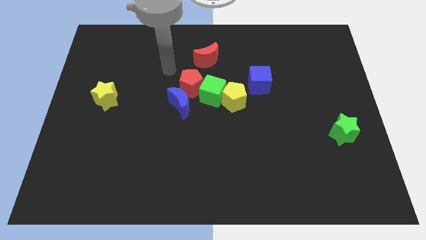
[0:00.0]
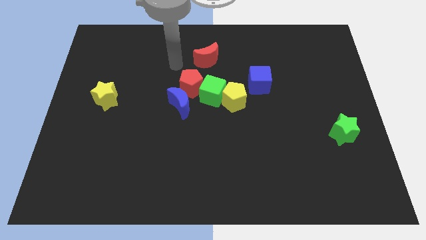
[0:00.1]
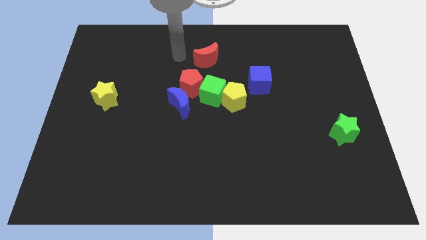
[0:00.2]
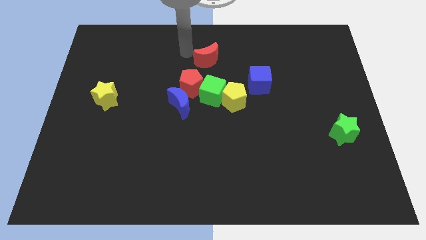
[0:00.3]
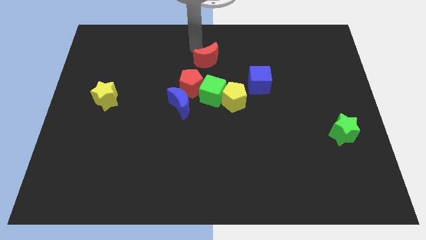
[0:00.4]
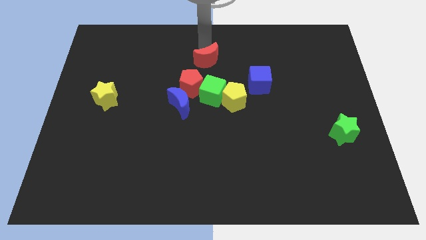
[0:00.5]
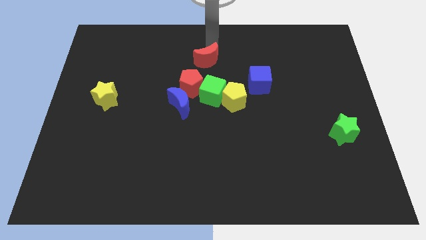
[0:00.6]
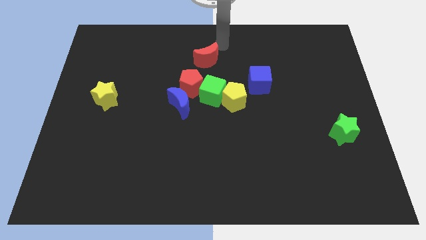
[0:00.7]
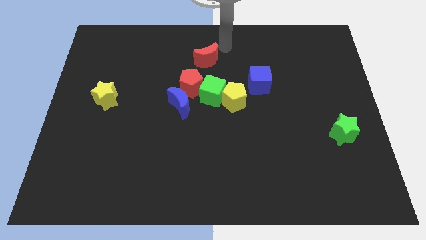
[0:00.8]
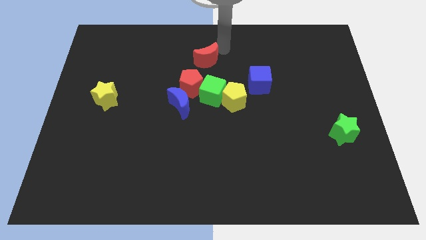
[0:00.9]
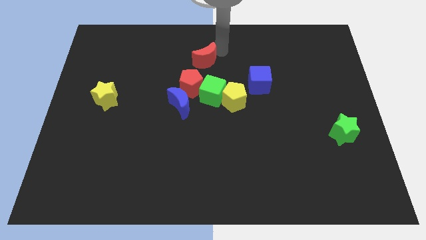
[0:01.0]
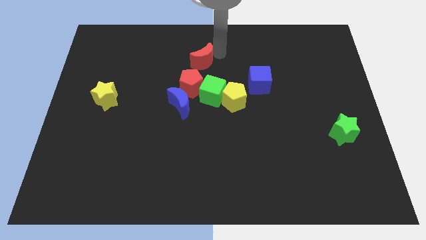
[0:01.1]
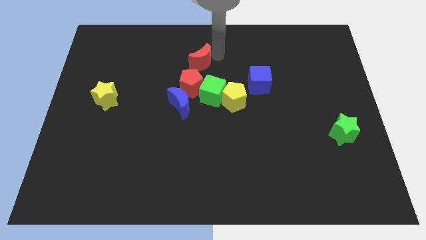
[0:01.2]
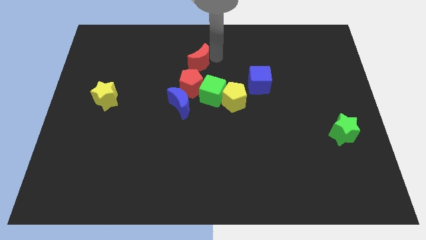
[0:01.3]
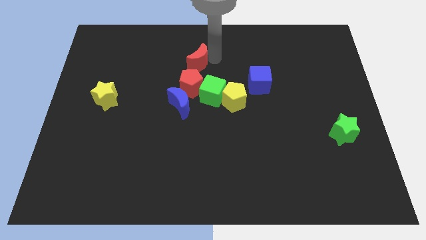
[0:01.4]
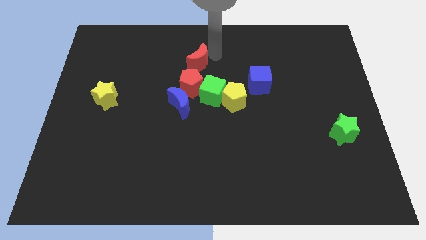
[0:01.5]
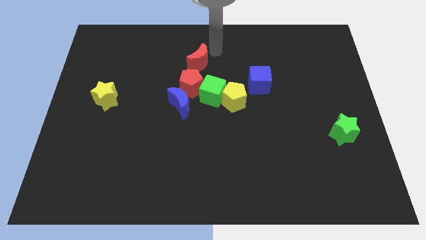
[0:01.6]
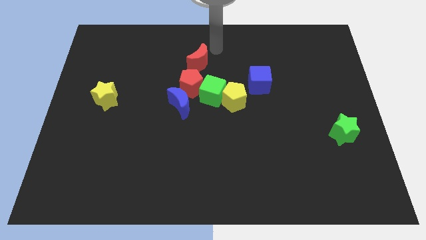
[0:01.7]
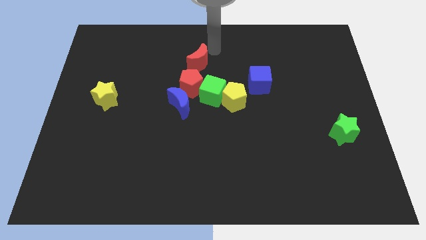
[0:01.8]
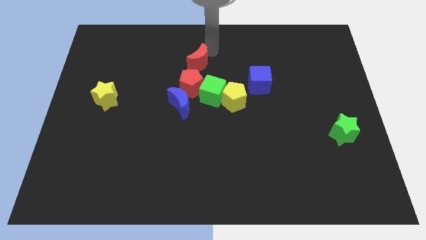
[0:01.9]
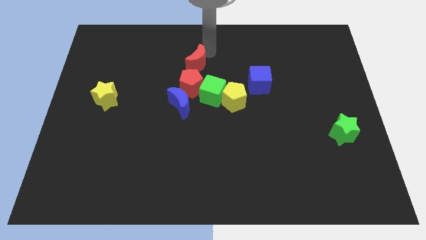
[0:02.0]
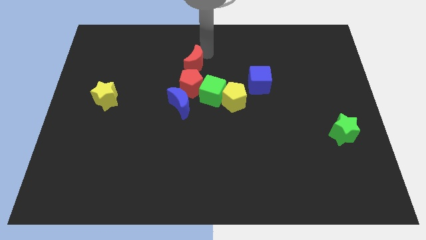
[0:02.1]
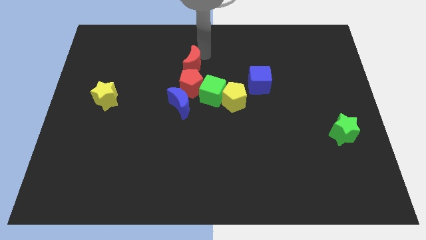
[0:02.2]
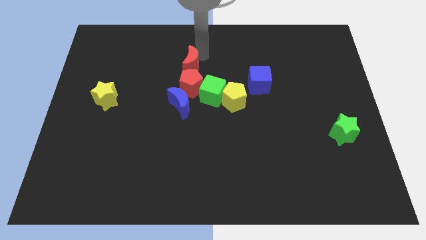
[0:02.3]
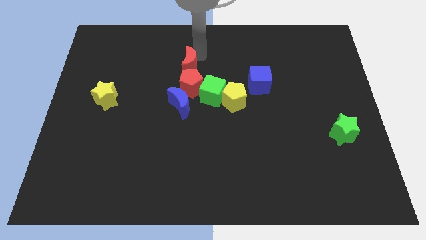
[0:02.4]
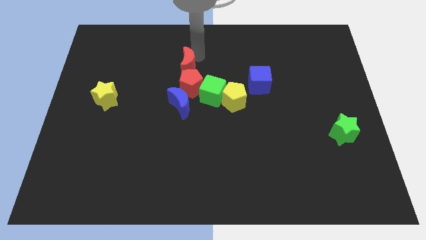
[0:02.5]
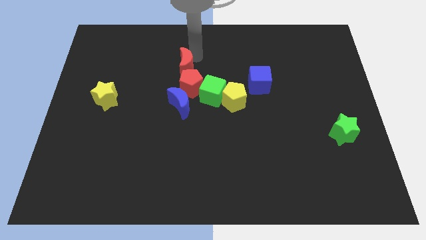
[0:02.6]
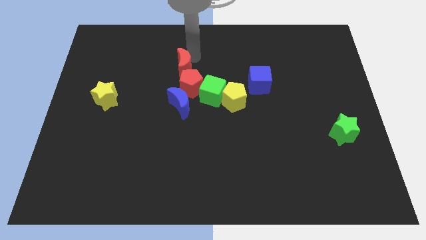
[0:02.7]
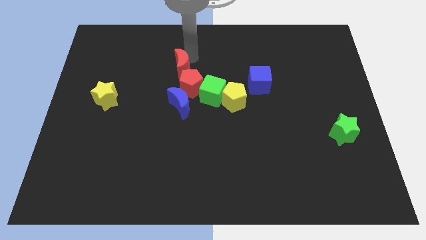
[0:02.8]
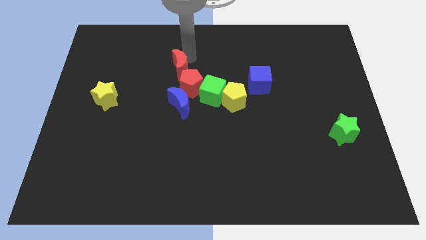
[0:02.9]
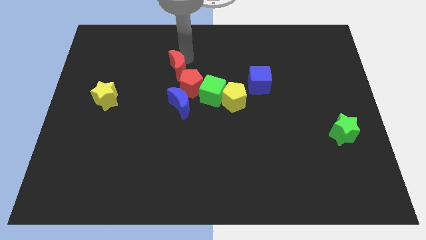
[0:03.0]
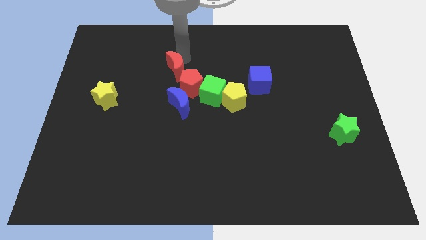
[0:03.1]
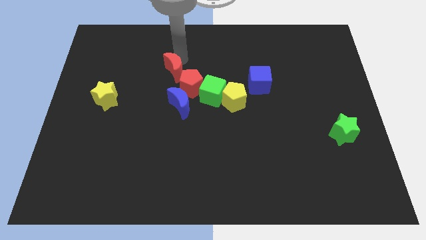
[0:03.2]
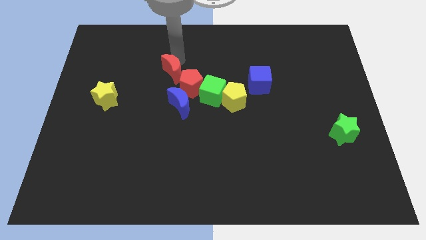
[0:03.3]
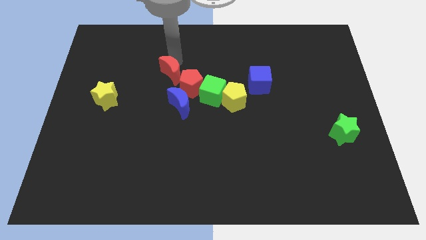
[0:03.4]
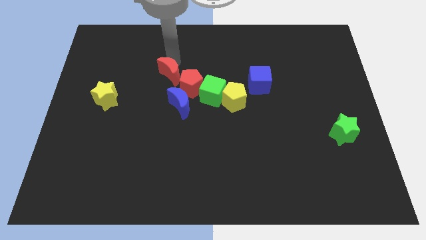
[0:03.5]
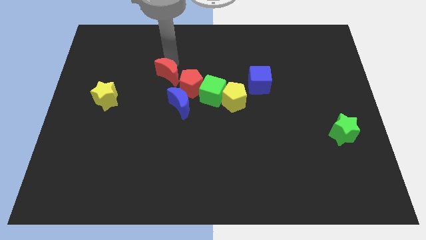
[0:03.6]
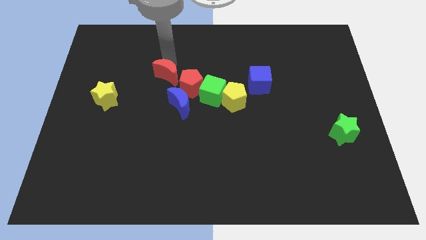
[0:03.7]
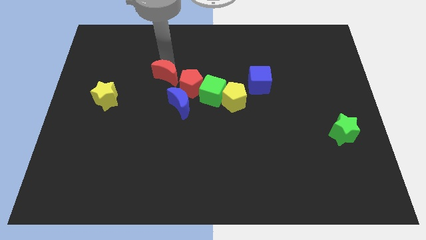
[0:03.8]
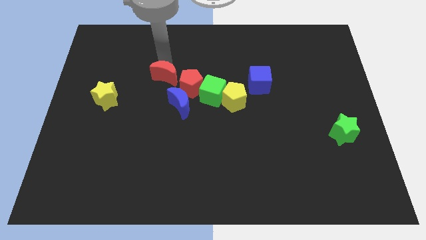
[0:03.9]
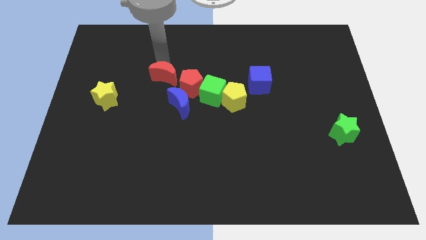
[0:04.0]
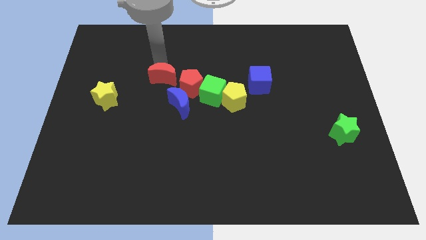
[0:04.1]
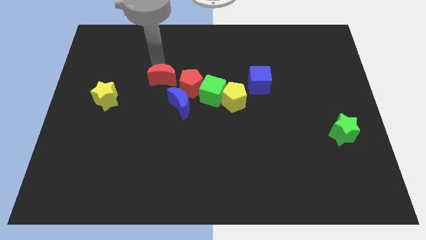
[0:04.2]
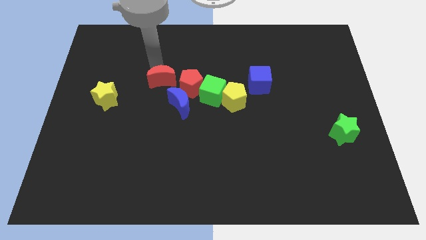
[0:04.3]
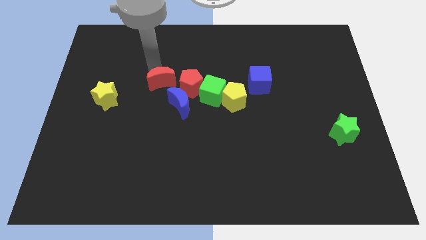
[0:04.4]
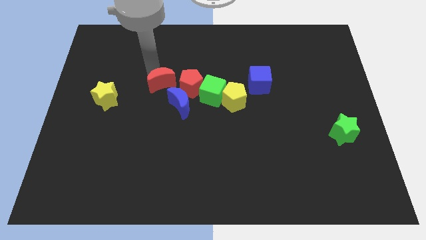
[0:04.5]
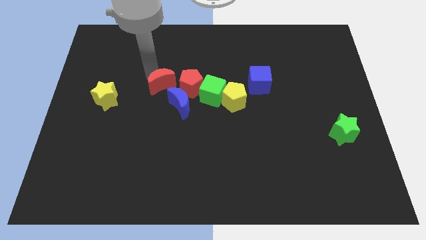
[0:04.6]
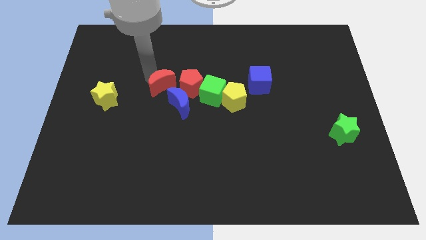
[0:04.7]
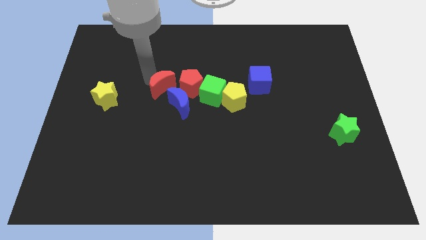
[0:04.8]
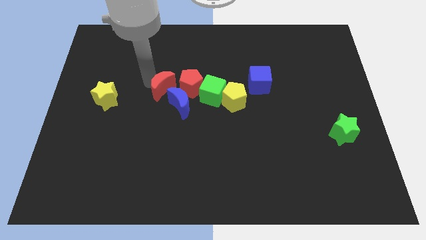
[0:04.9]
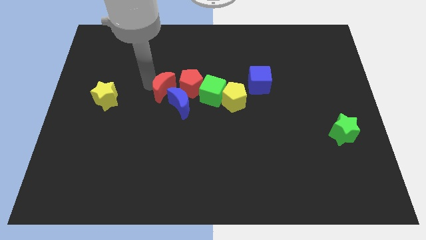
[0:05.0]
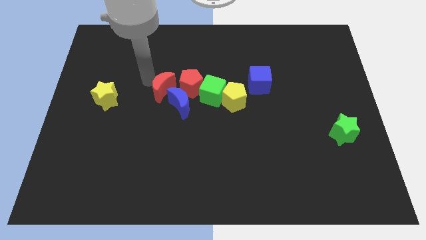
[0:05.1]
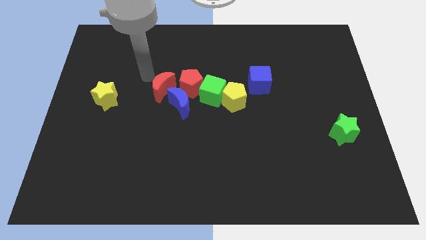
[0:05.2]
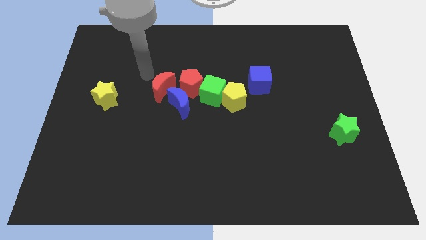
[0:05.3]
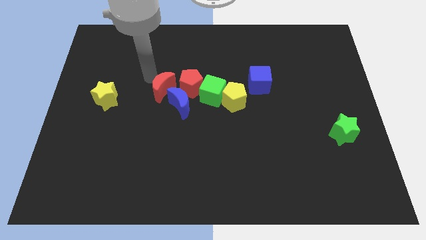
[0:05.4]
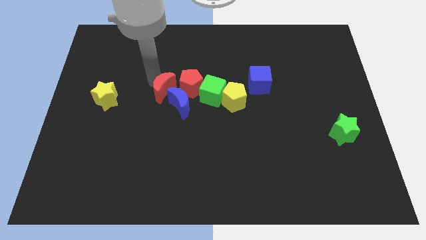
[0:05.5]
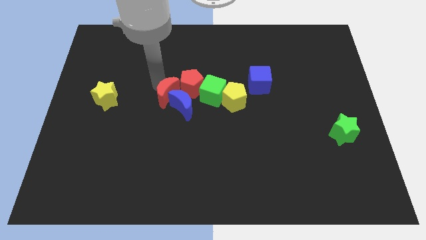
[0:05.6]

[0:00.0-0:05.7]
push the red moon towards the blue moon

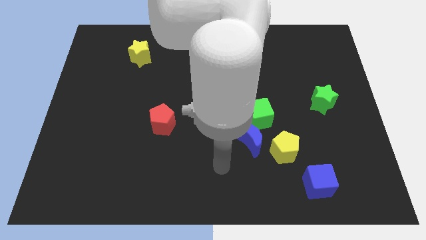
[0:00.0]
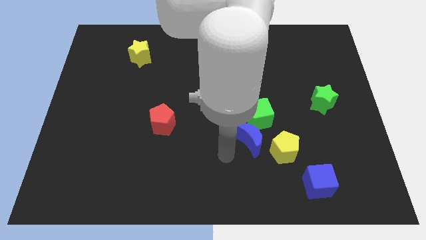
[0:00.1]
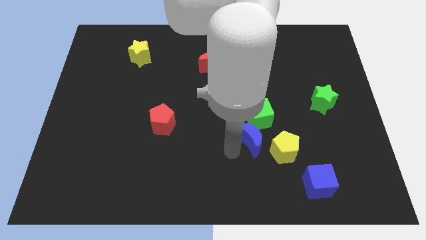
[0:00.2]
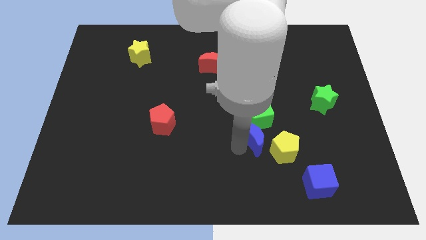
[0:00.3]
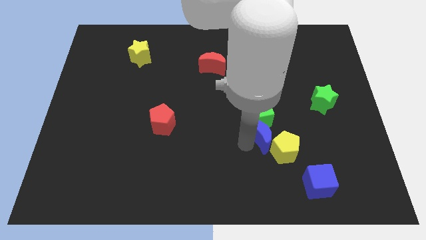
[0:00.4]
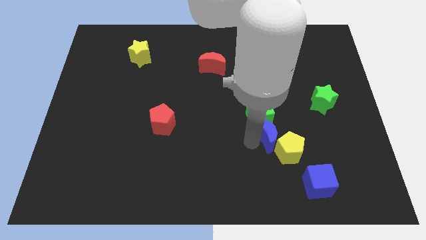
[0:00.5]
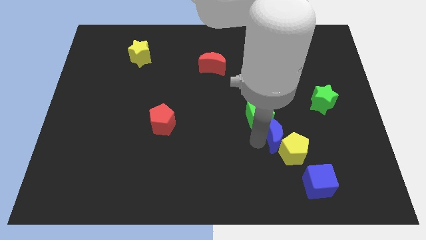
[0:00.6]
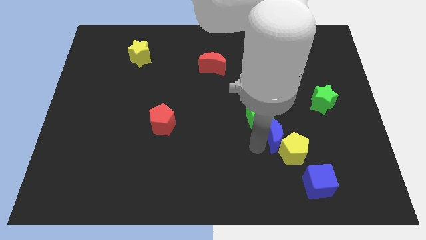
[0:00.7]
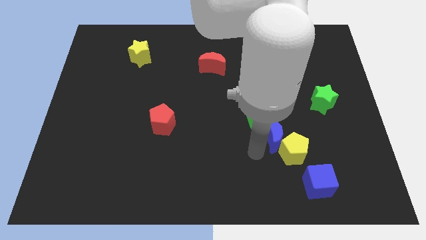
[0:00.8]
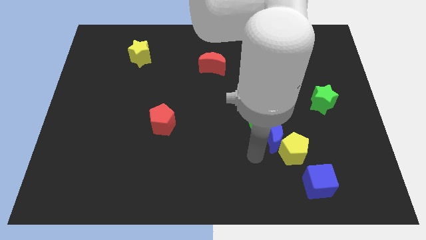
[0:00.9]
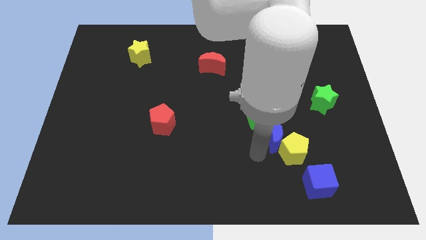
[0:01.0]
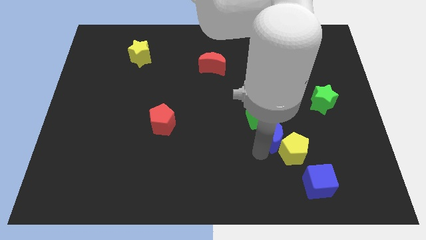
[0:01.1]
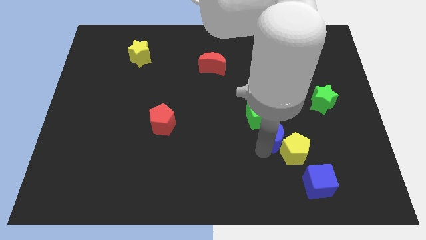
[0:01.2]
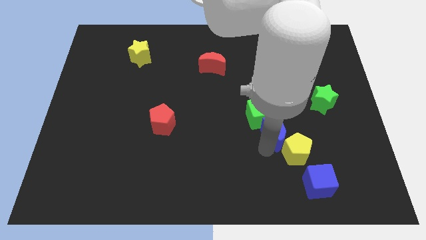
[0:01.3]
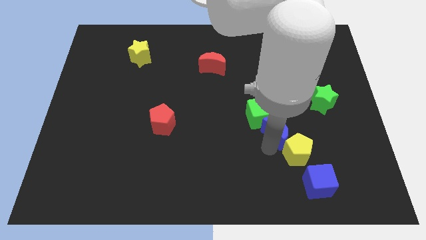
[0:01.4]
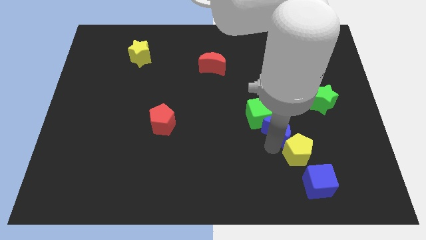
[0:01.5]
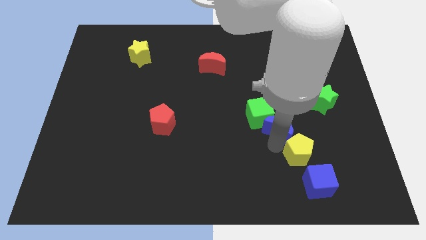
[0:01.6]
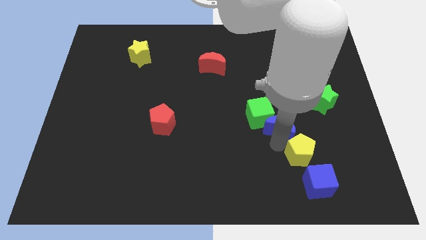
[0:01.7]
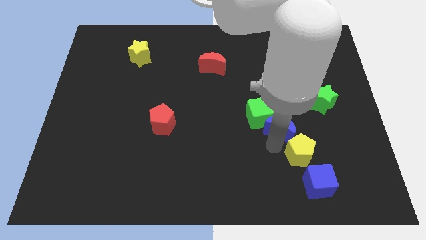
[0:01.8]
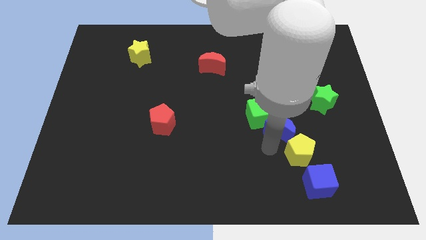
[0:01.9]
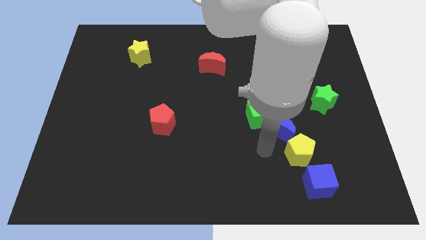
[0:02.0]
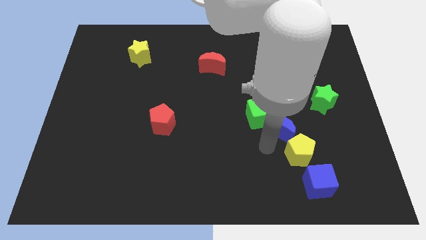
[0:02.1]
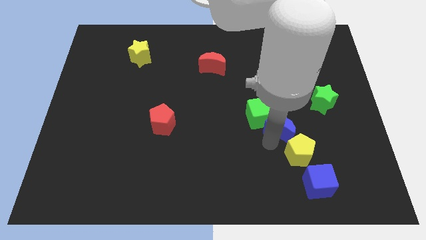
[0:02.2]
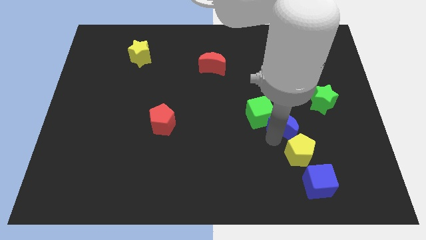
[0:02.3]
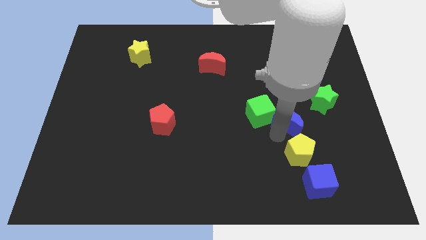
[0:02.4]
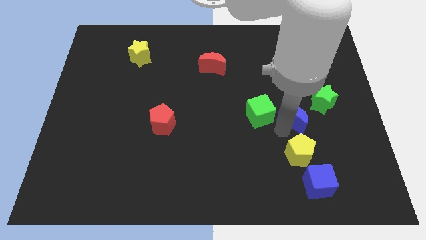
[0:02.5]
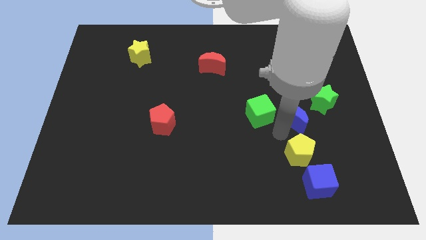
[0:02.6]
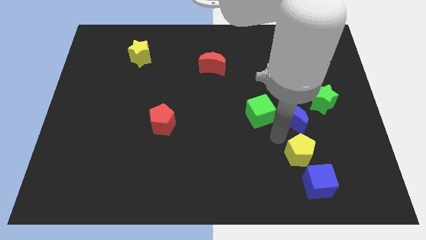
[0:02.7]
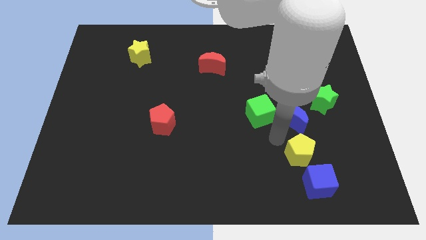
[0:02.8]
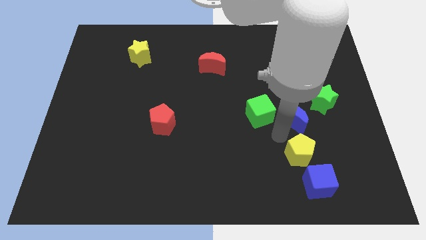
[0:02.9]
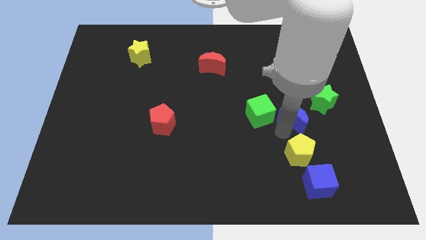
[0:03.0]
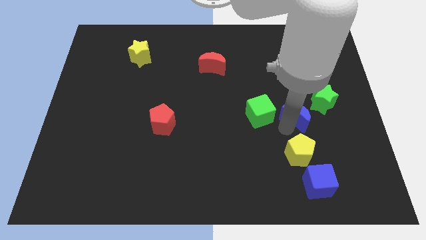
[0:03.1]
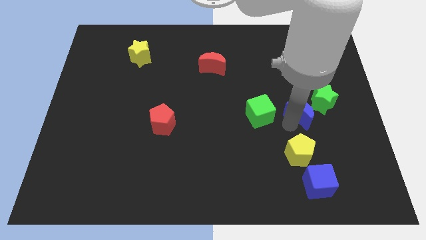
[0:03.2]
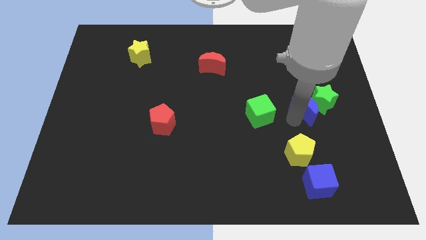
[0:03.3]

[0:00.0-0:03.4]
push the blue moon close to the green star
